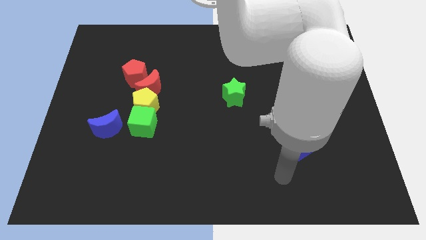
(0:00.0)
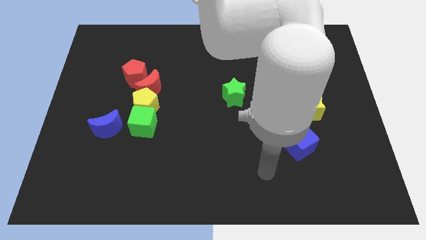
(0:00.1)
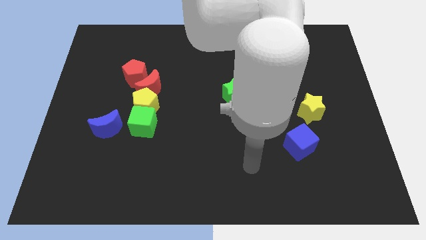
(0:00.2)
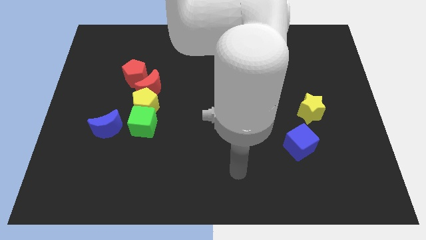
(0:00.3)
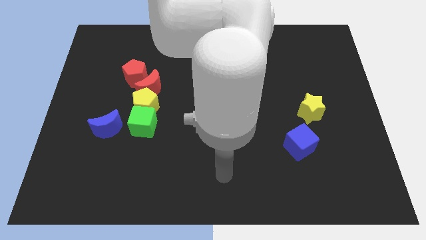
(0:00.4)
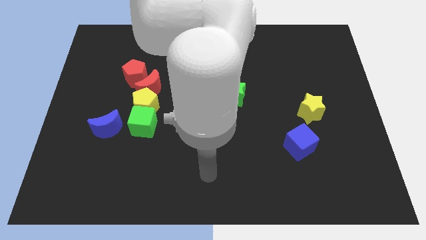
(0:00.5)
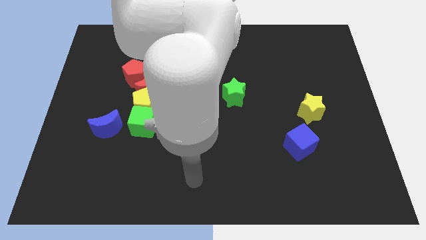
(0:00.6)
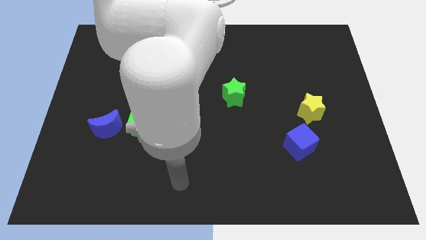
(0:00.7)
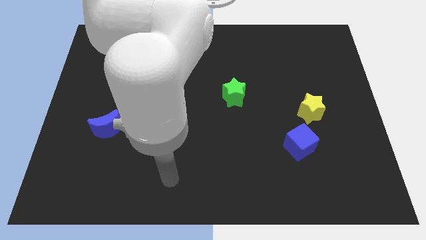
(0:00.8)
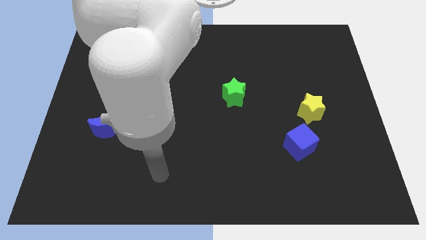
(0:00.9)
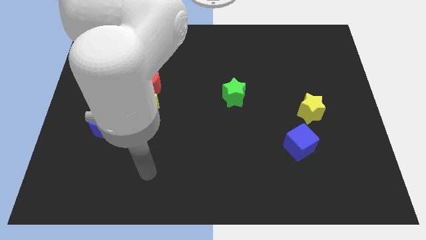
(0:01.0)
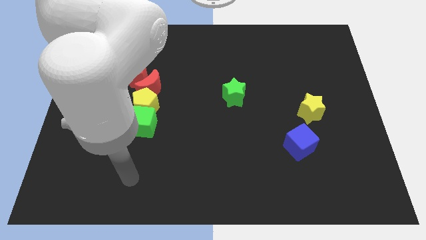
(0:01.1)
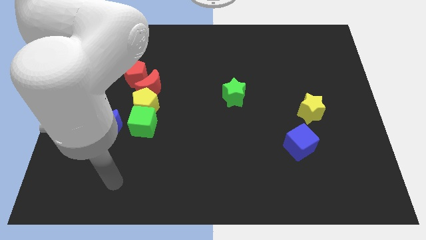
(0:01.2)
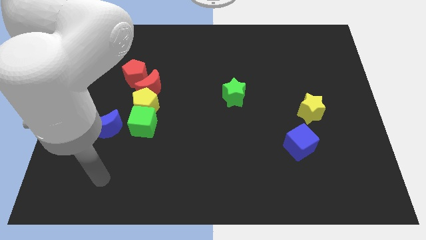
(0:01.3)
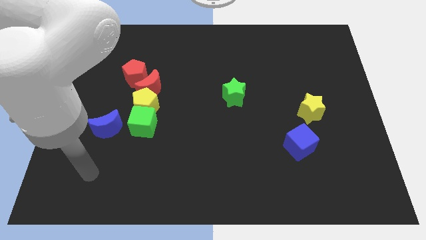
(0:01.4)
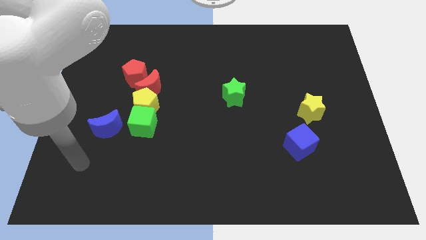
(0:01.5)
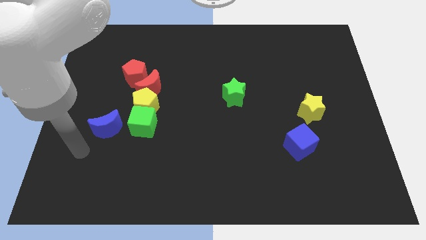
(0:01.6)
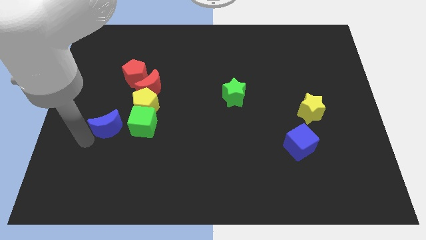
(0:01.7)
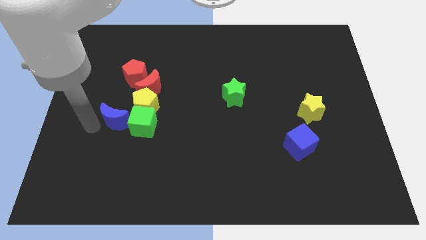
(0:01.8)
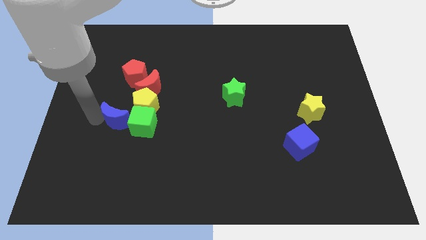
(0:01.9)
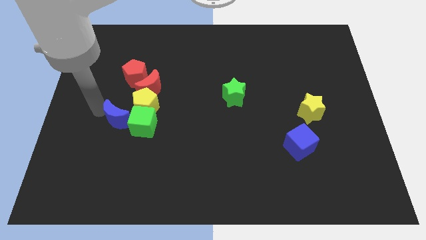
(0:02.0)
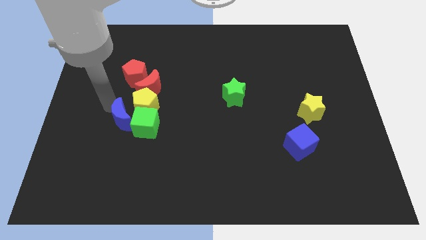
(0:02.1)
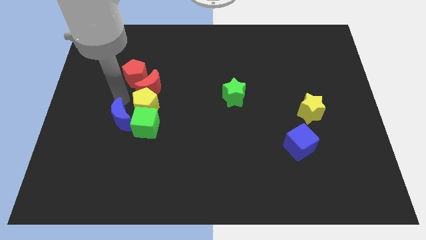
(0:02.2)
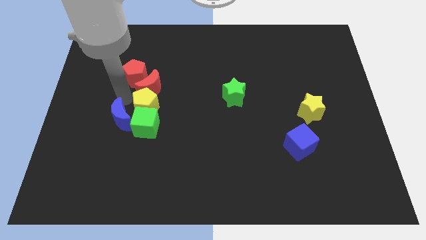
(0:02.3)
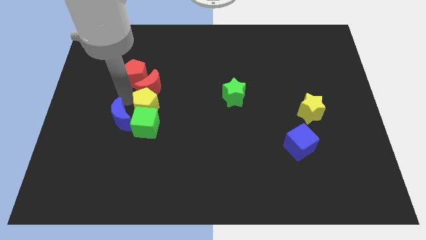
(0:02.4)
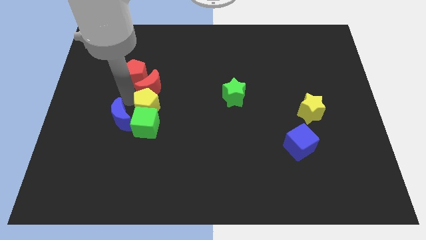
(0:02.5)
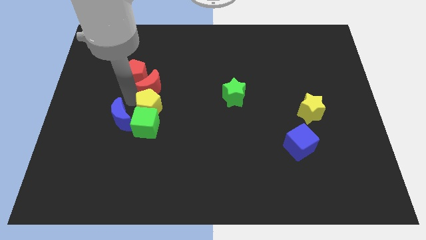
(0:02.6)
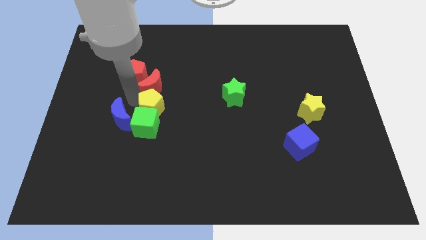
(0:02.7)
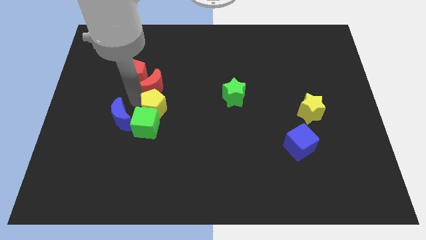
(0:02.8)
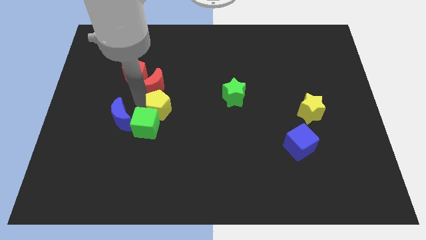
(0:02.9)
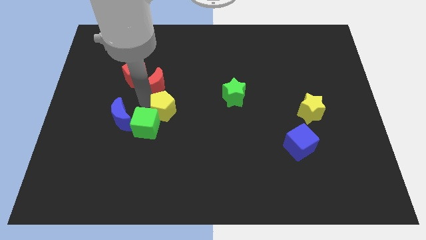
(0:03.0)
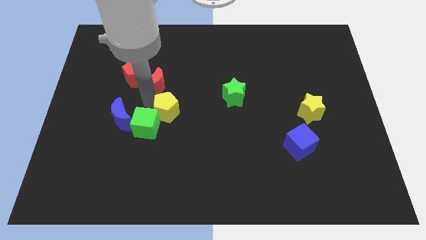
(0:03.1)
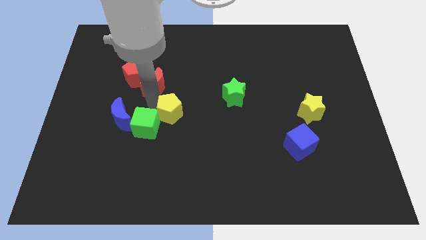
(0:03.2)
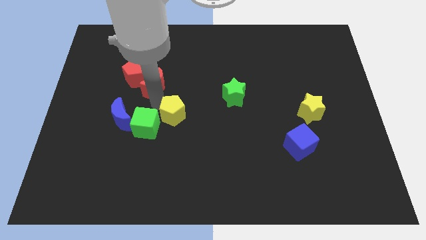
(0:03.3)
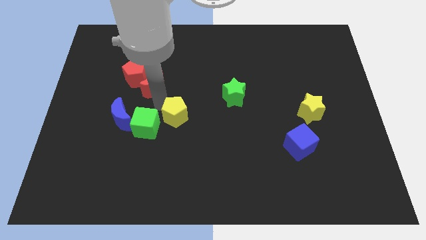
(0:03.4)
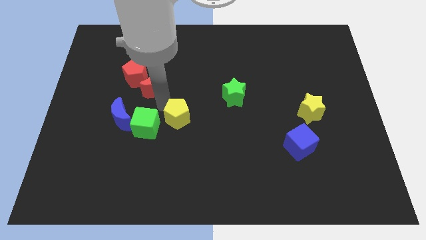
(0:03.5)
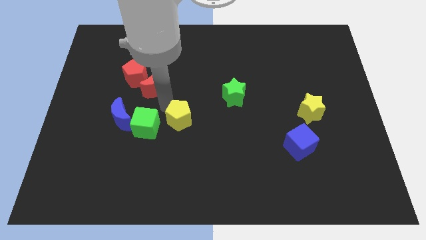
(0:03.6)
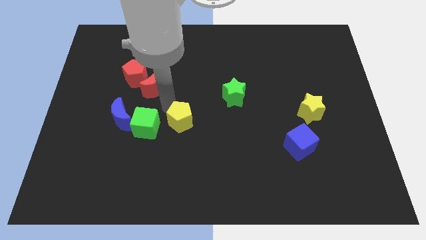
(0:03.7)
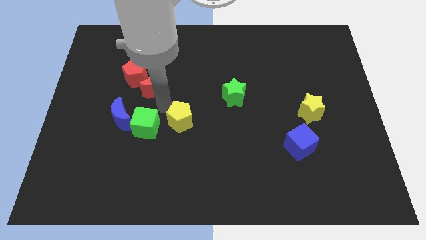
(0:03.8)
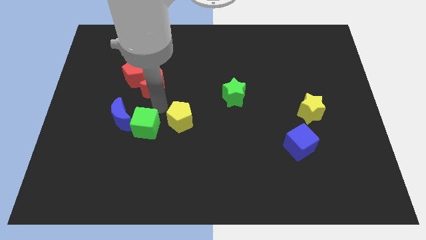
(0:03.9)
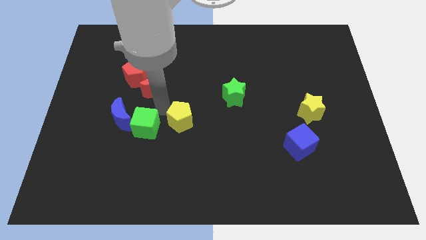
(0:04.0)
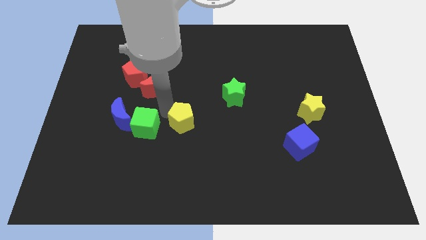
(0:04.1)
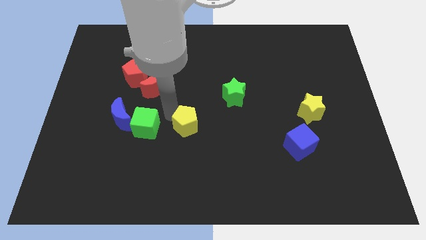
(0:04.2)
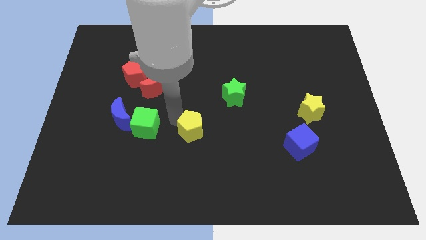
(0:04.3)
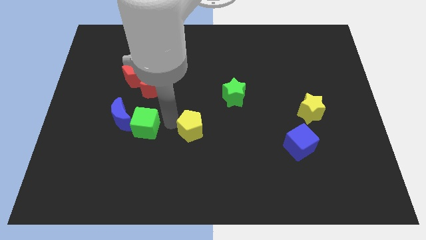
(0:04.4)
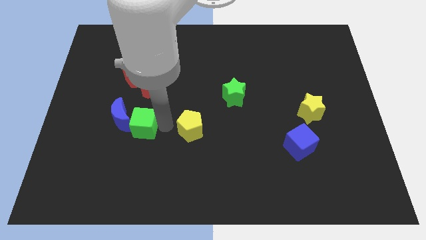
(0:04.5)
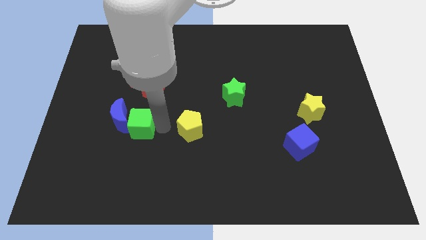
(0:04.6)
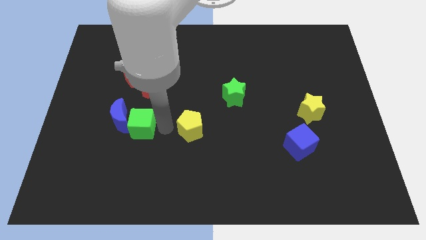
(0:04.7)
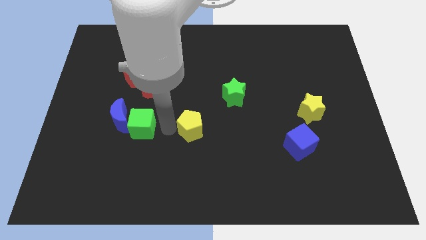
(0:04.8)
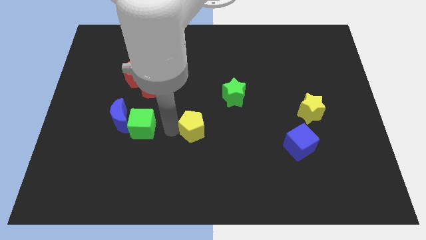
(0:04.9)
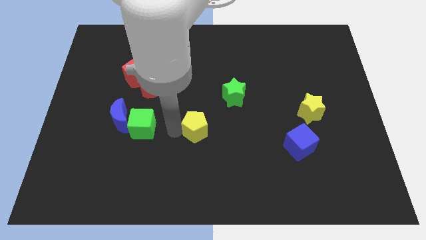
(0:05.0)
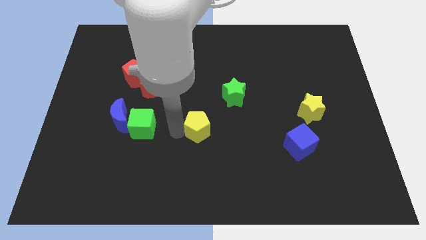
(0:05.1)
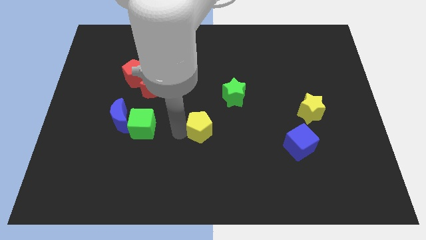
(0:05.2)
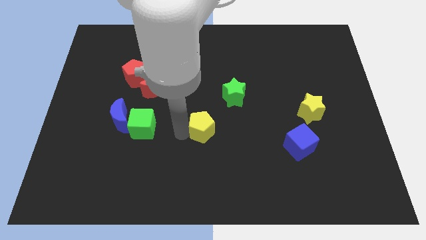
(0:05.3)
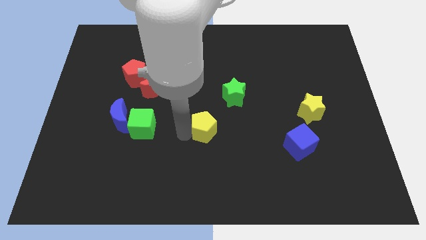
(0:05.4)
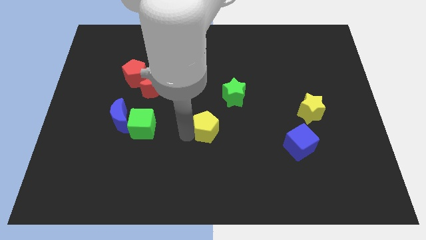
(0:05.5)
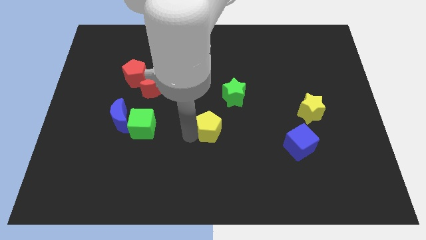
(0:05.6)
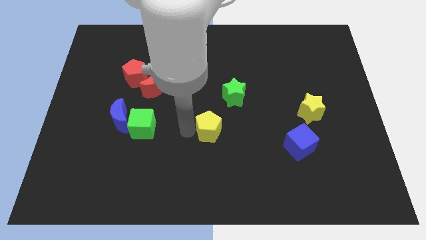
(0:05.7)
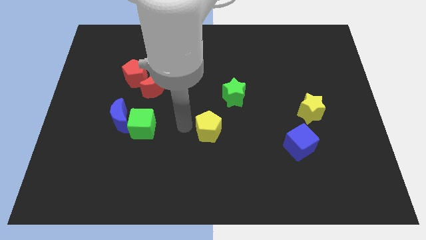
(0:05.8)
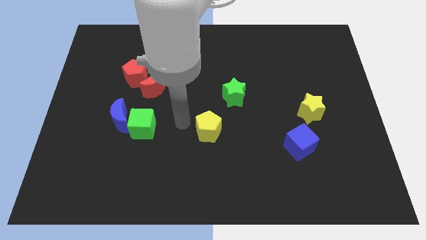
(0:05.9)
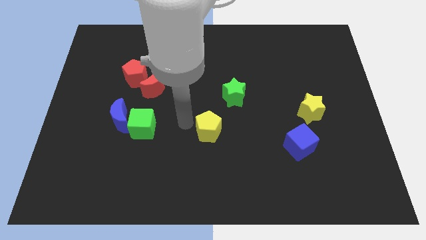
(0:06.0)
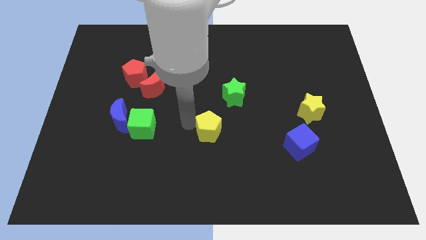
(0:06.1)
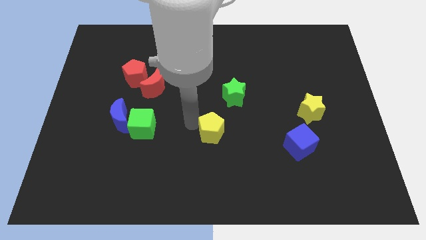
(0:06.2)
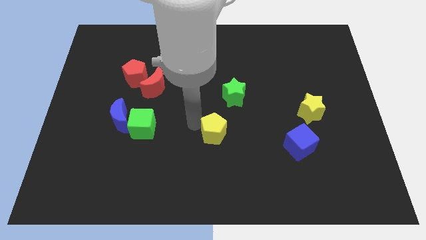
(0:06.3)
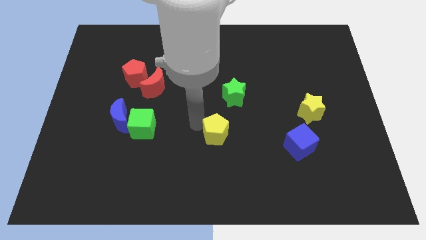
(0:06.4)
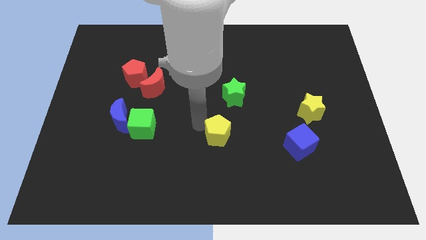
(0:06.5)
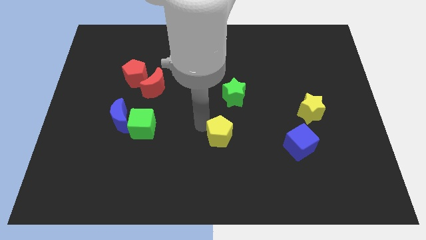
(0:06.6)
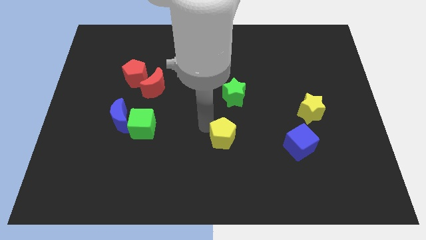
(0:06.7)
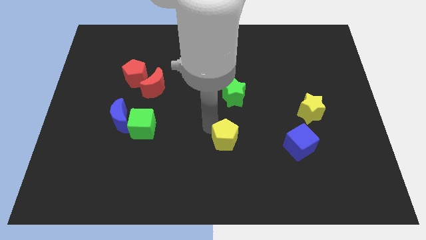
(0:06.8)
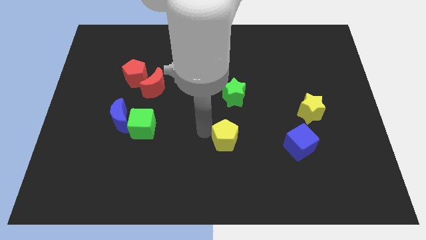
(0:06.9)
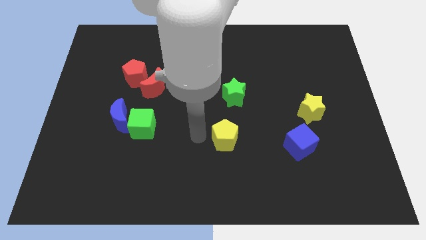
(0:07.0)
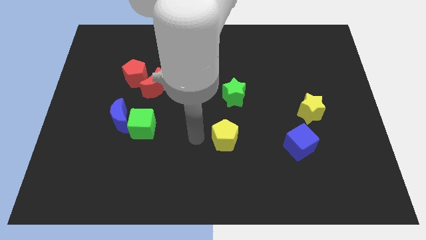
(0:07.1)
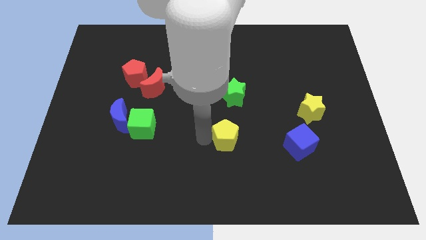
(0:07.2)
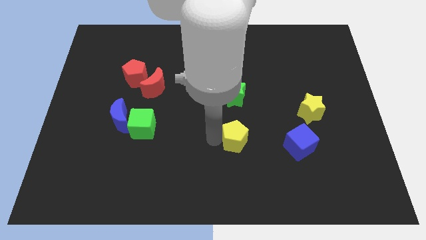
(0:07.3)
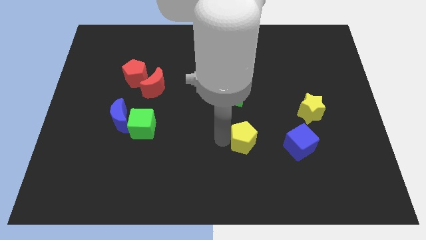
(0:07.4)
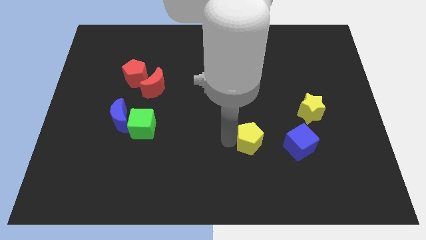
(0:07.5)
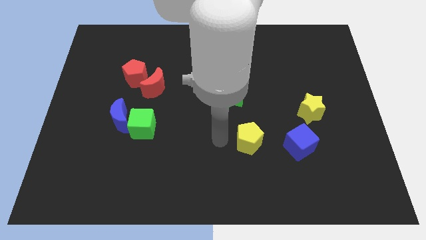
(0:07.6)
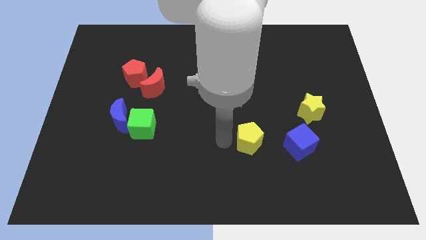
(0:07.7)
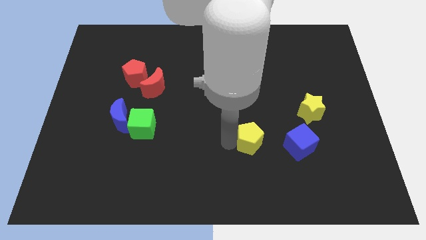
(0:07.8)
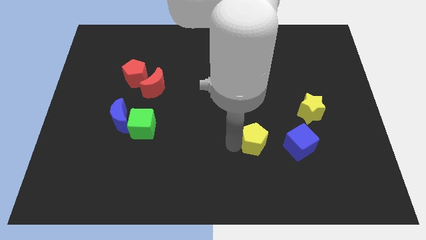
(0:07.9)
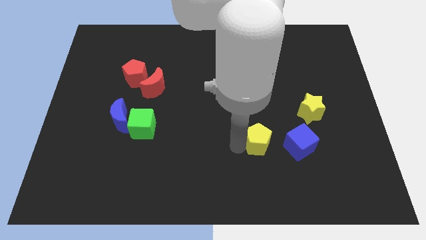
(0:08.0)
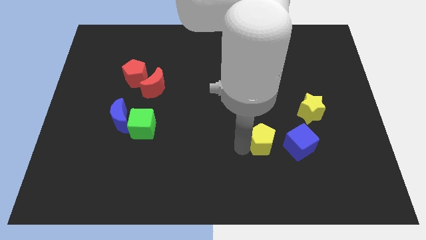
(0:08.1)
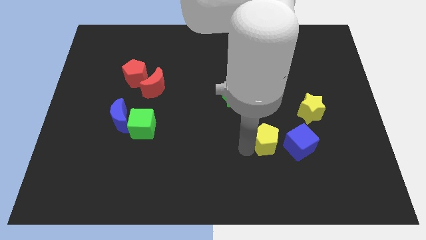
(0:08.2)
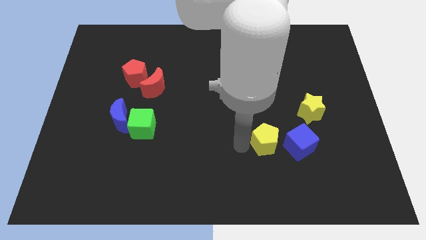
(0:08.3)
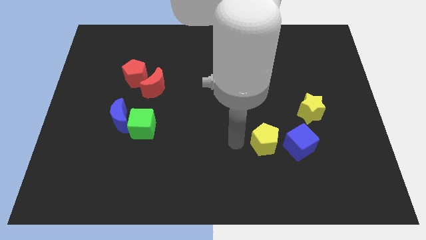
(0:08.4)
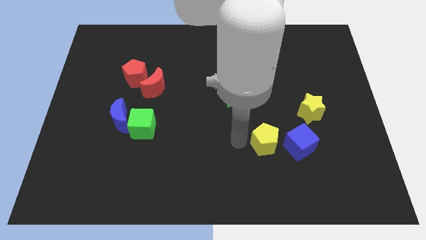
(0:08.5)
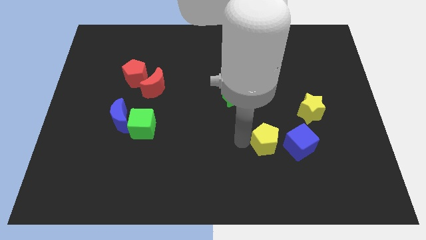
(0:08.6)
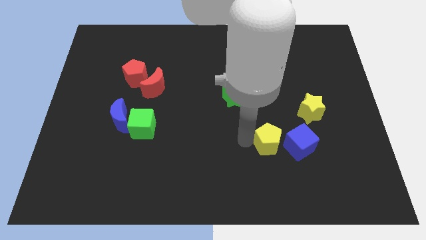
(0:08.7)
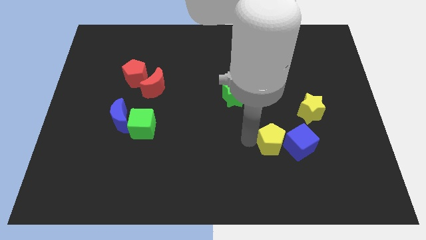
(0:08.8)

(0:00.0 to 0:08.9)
slide the yellow pentagon to the blue cube
